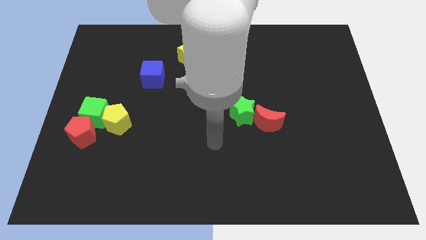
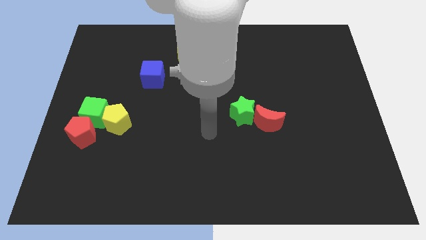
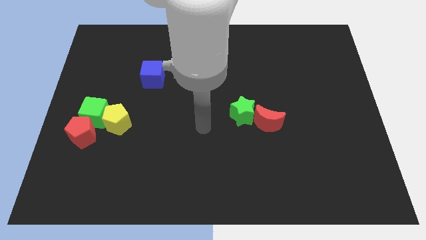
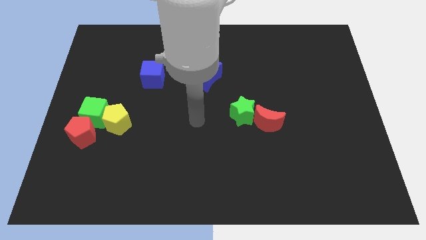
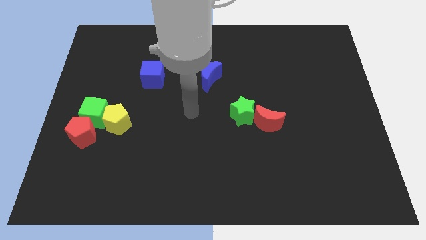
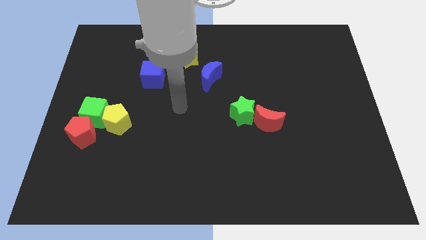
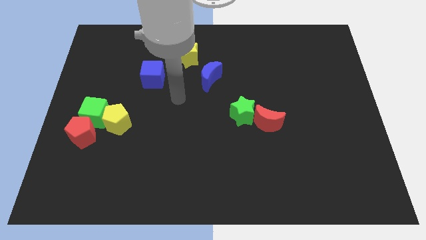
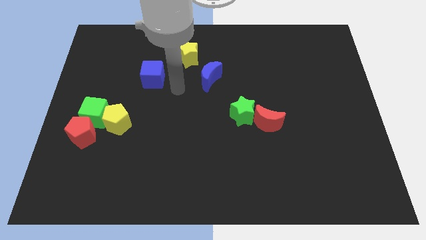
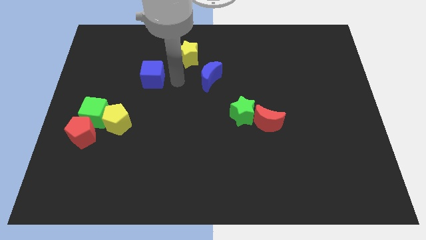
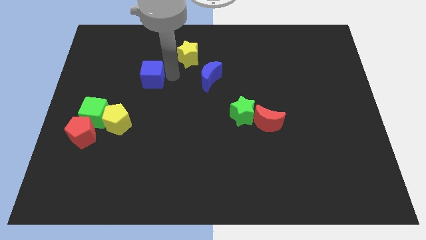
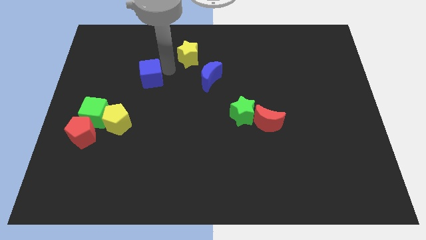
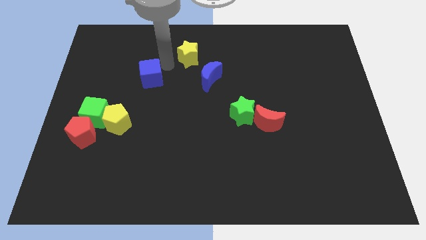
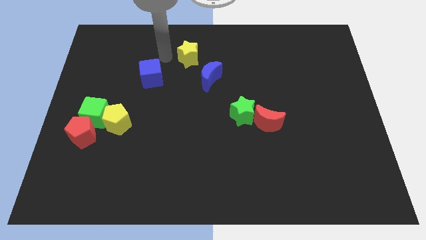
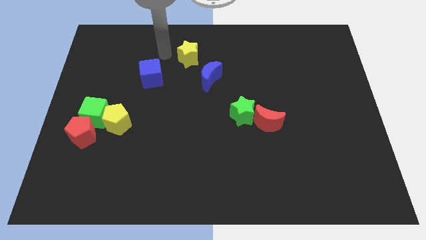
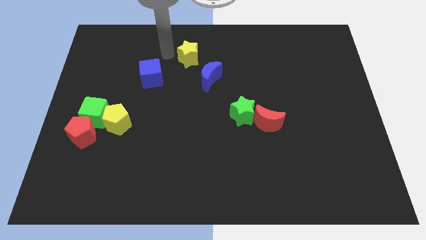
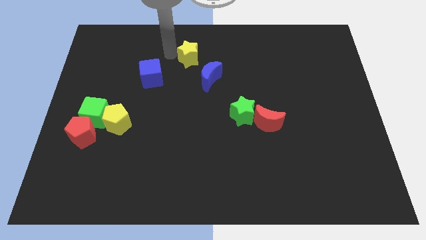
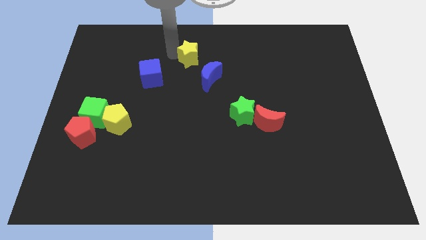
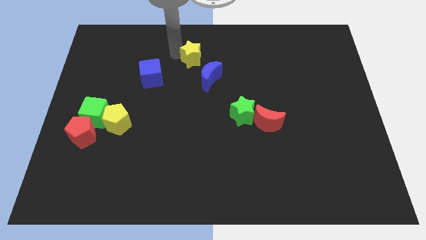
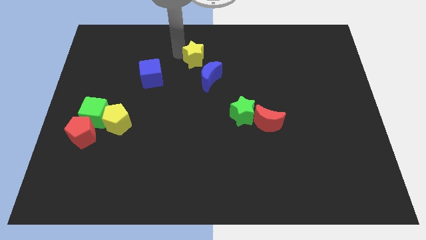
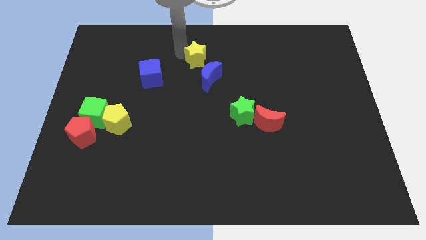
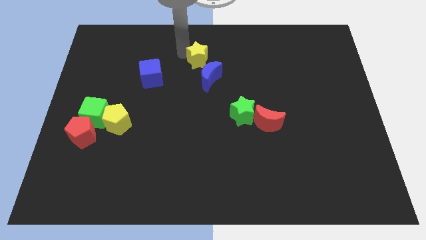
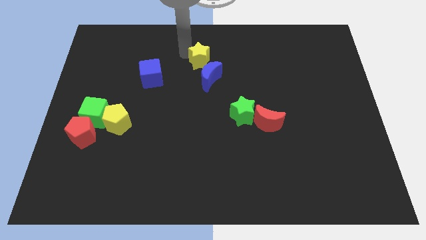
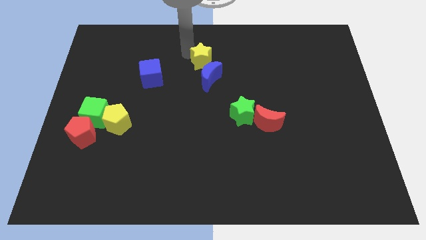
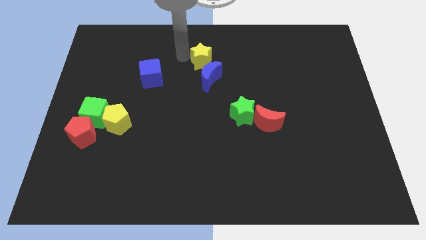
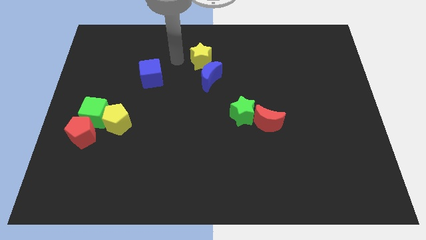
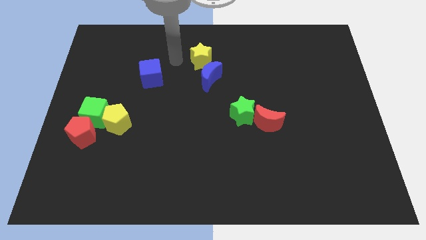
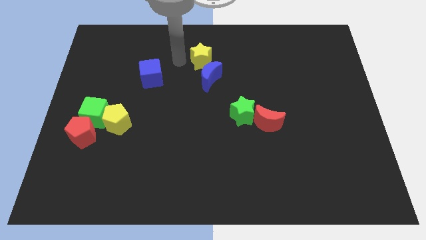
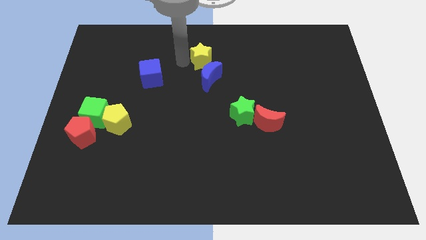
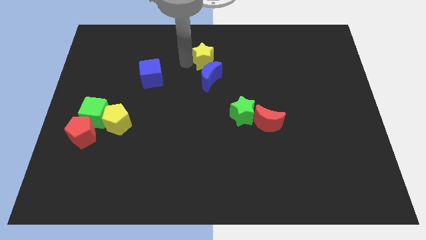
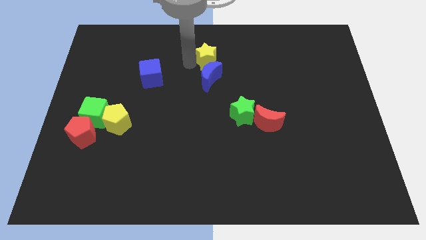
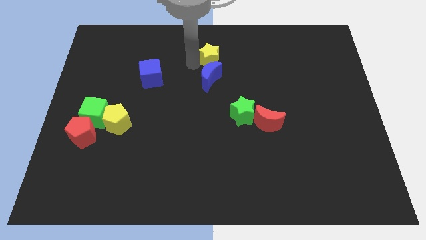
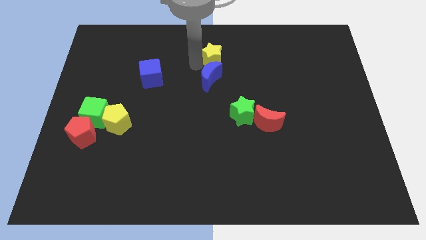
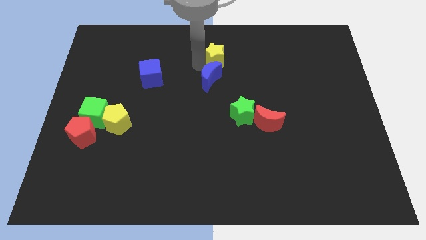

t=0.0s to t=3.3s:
slide the yellow star slightly right

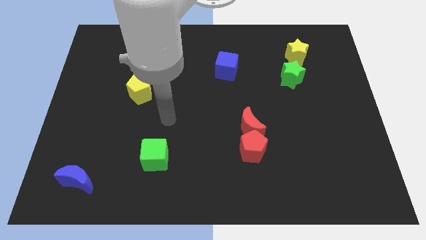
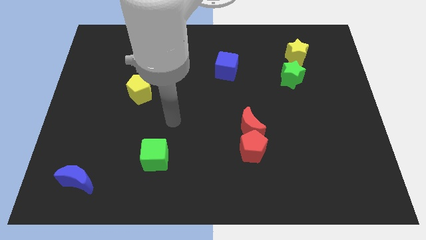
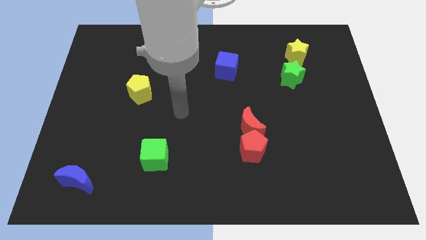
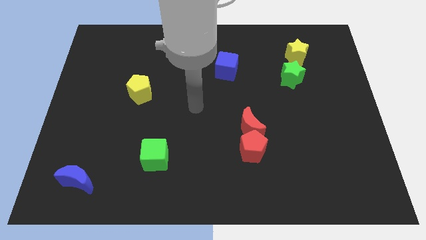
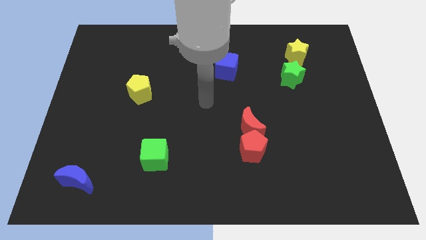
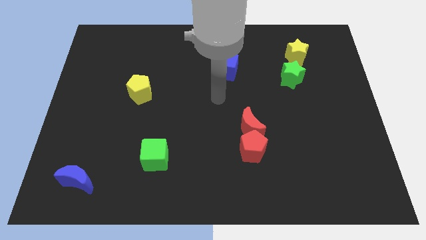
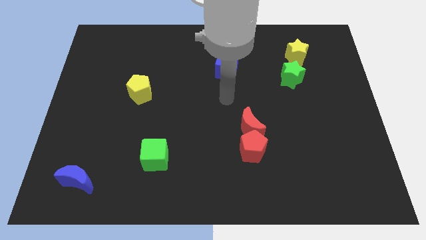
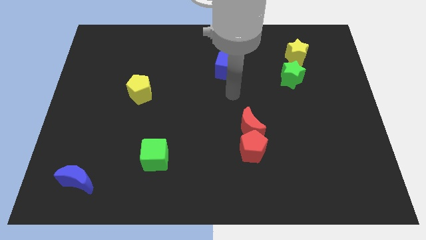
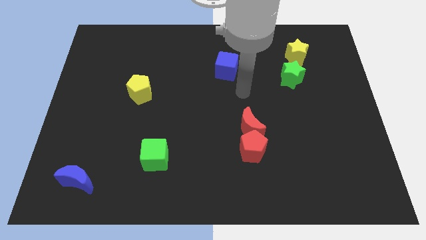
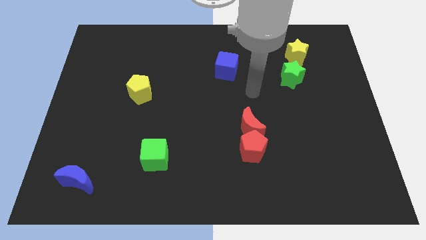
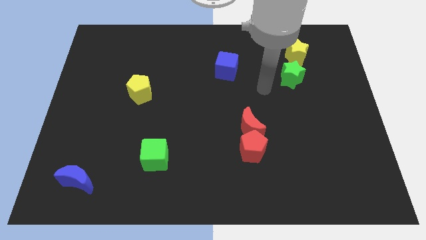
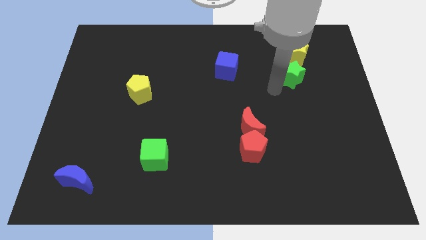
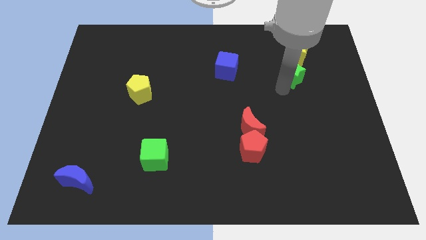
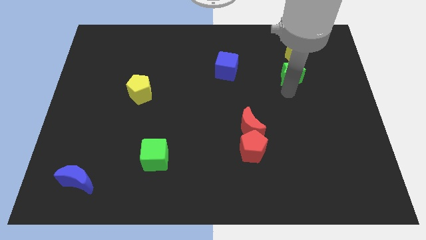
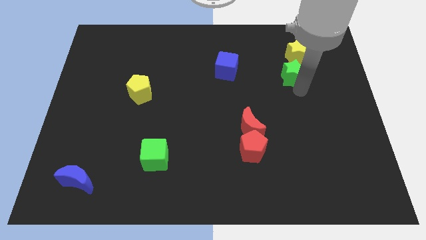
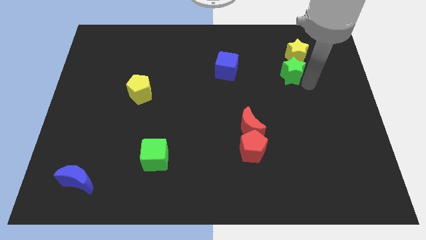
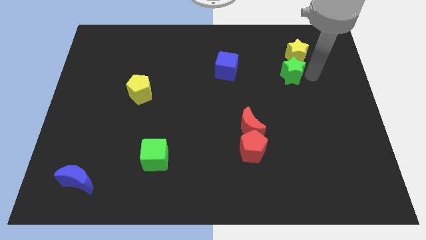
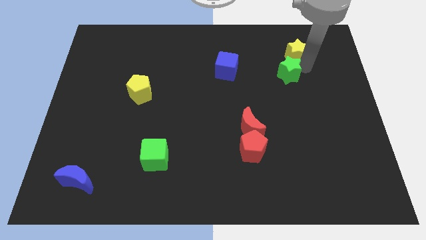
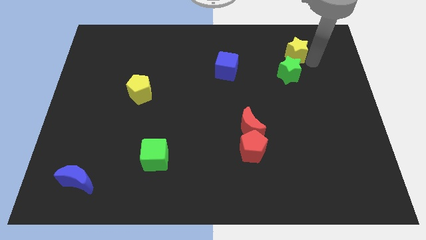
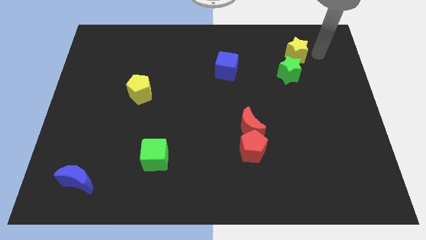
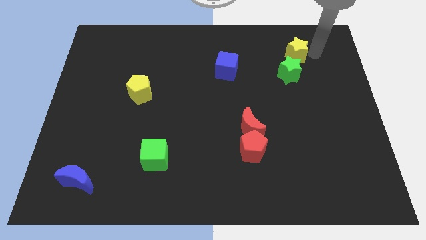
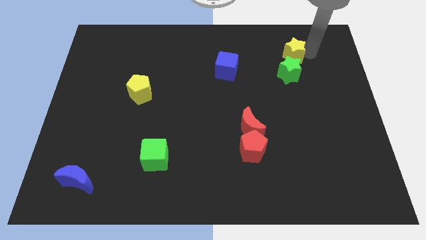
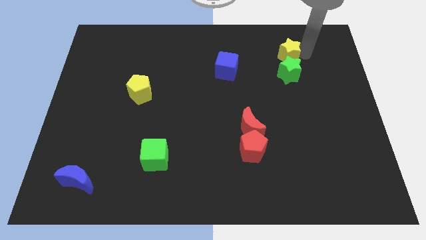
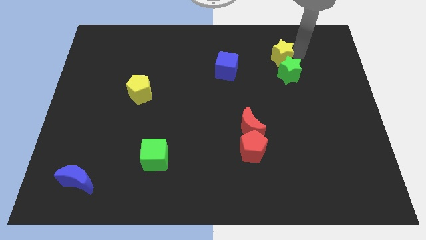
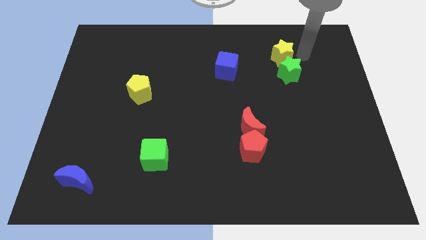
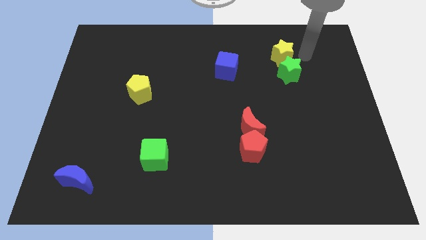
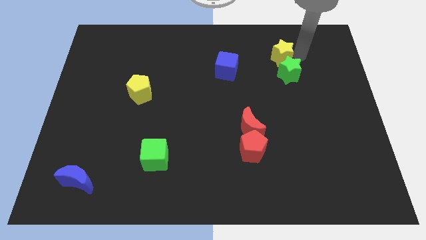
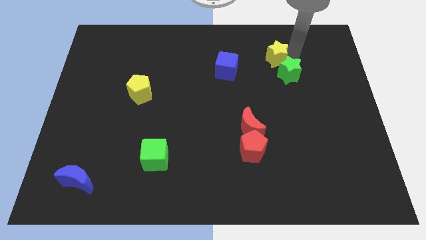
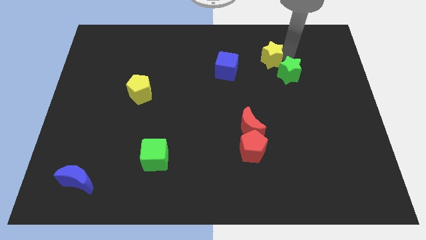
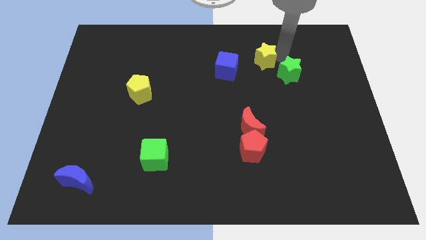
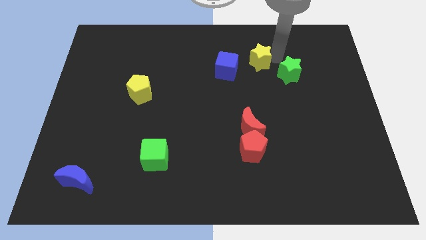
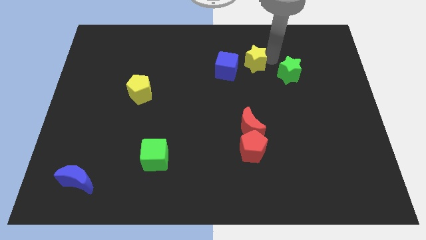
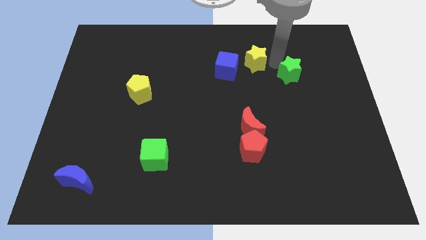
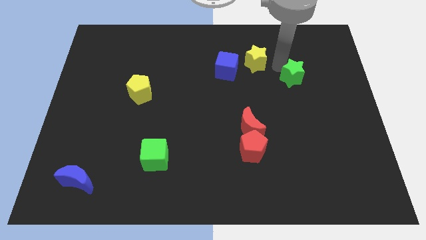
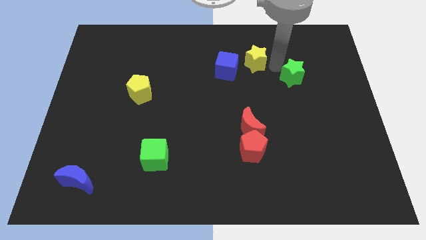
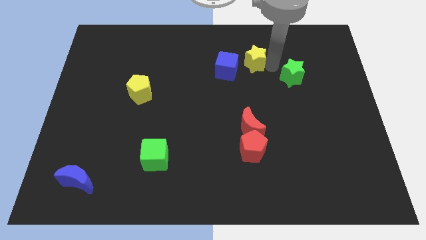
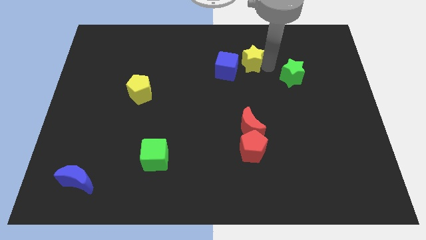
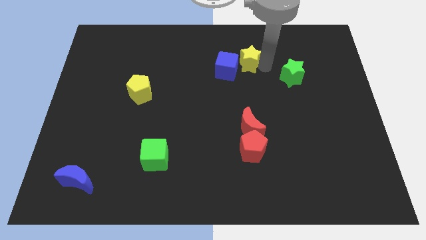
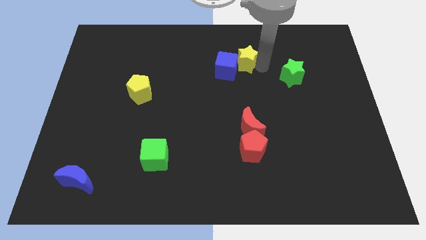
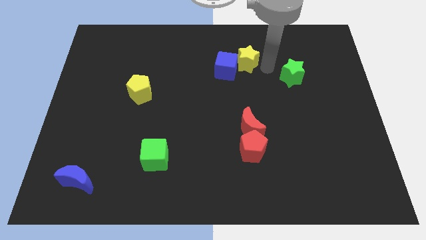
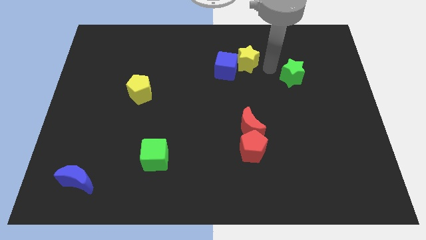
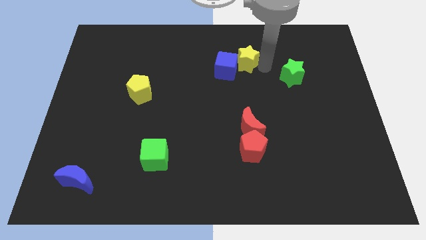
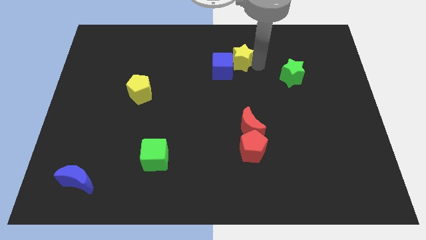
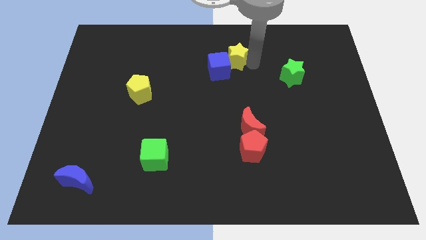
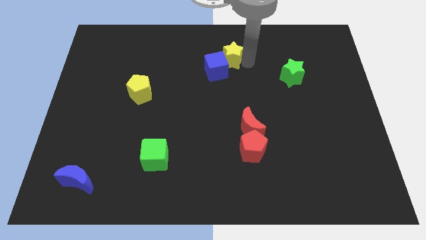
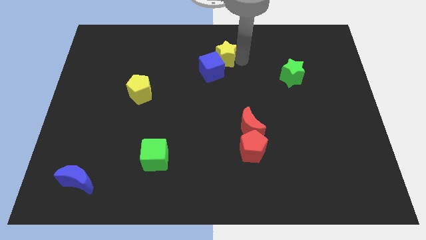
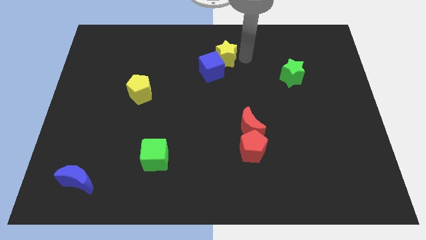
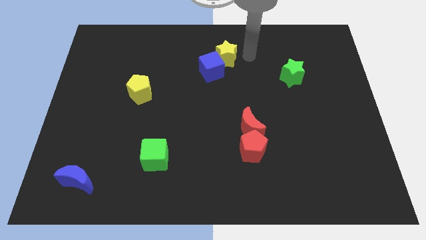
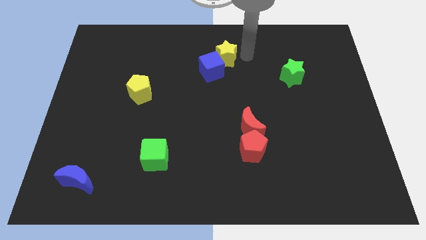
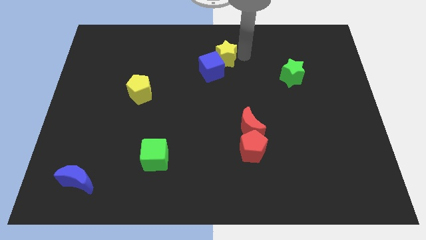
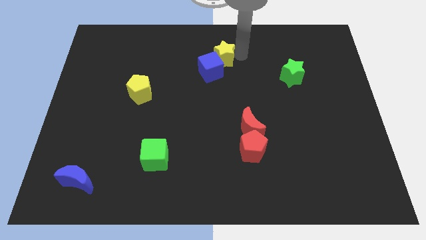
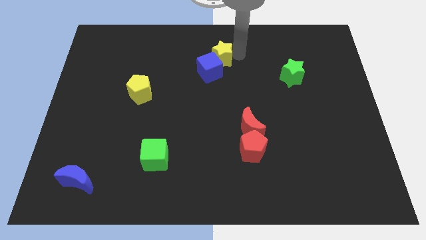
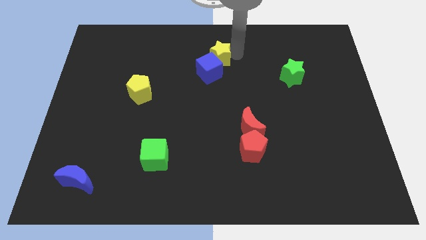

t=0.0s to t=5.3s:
move the yellow star left
